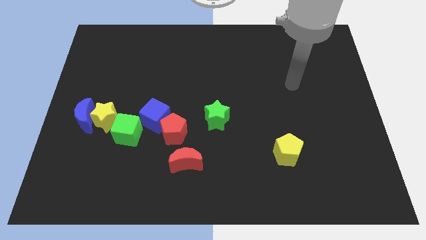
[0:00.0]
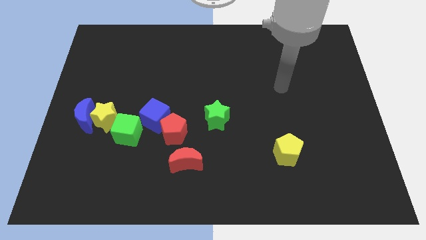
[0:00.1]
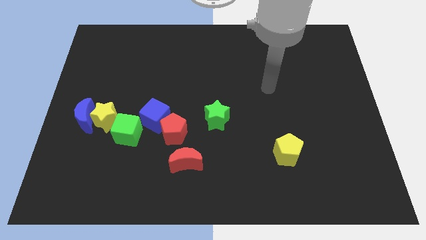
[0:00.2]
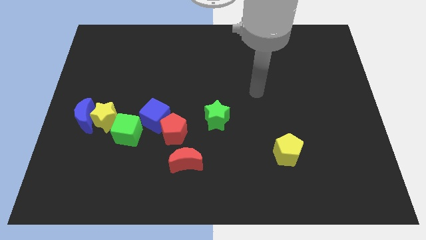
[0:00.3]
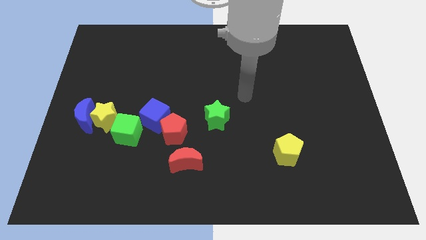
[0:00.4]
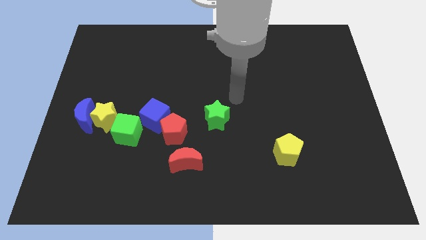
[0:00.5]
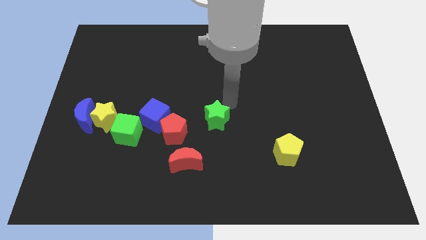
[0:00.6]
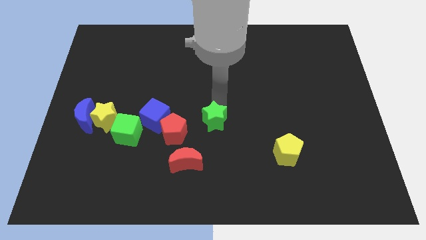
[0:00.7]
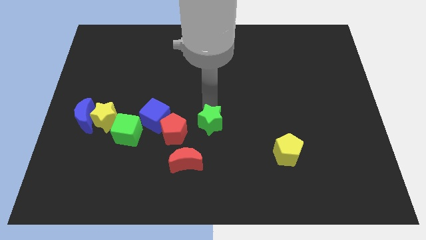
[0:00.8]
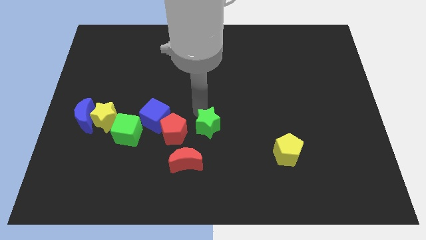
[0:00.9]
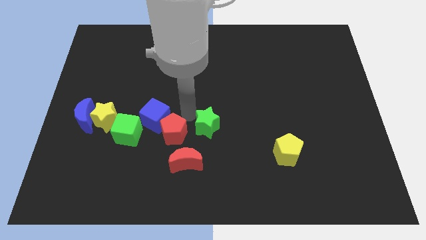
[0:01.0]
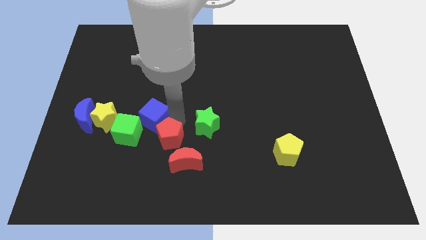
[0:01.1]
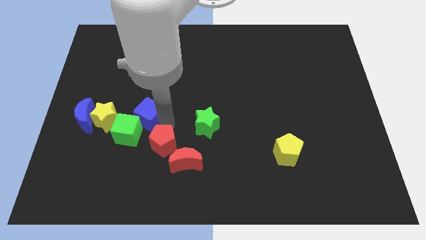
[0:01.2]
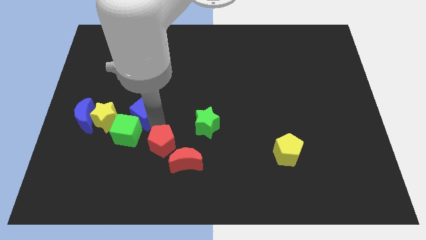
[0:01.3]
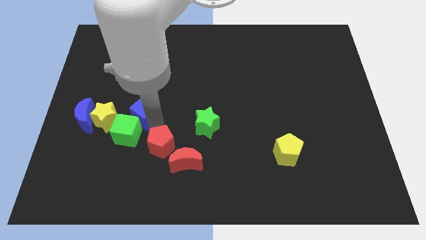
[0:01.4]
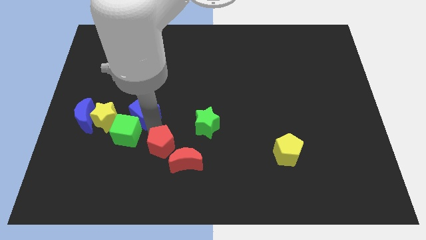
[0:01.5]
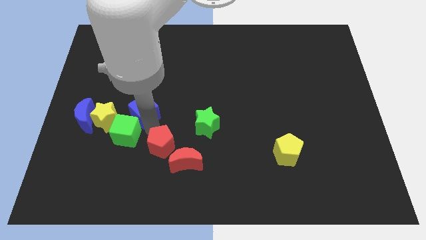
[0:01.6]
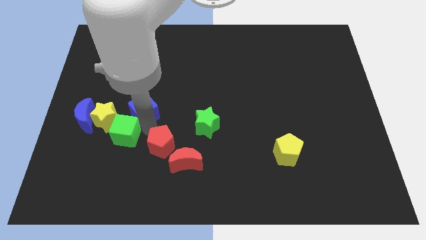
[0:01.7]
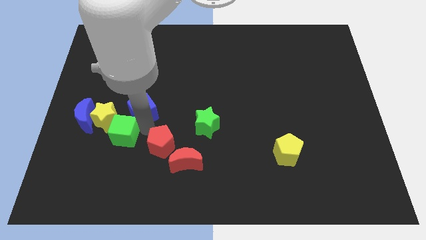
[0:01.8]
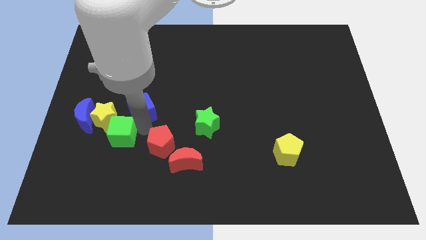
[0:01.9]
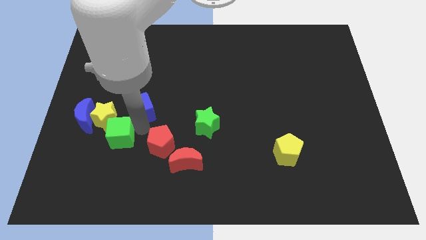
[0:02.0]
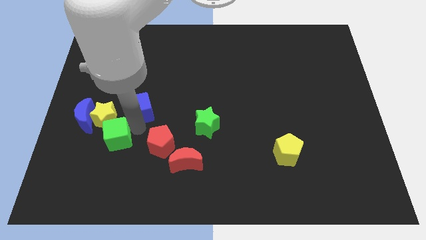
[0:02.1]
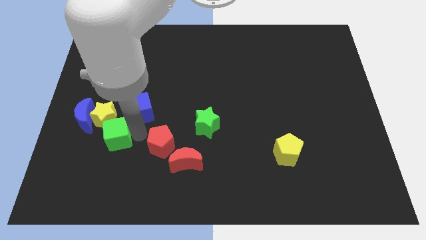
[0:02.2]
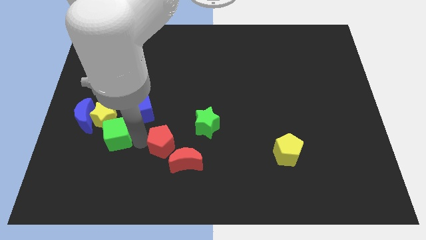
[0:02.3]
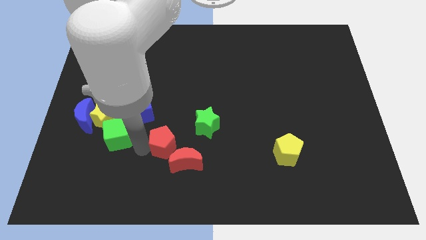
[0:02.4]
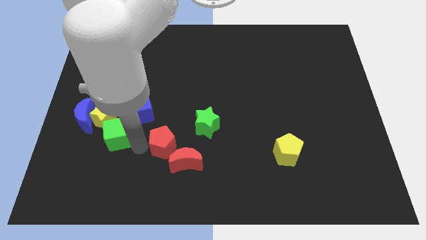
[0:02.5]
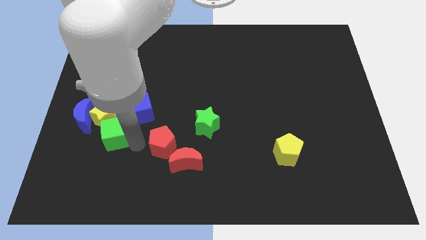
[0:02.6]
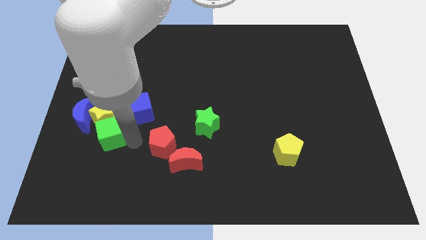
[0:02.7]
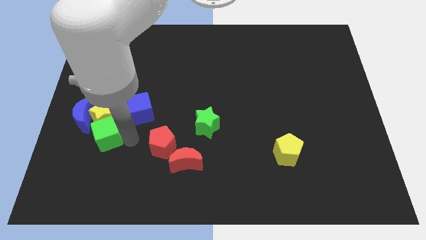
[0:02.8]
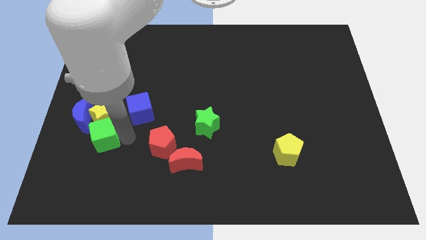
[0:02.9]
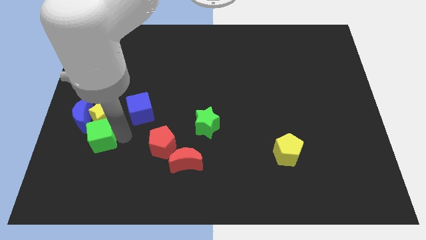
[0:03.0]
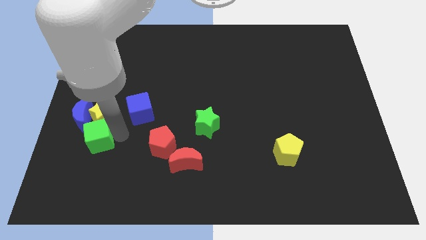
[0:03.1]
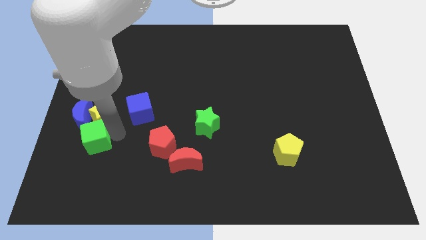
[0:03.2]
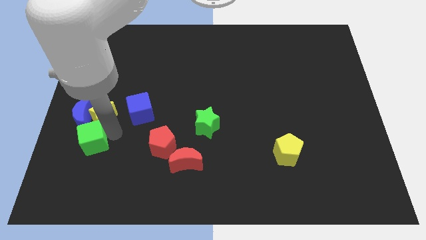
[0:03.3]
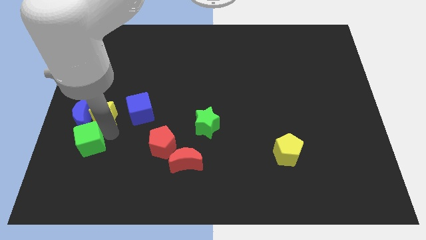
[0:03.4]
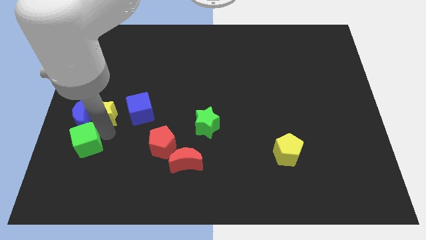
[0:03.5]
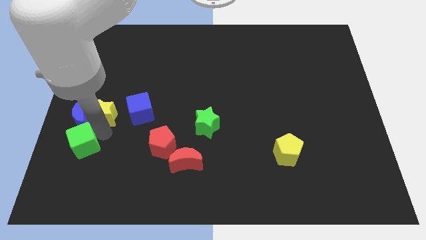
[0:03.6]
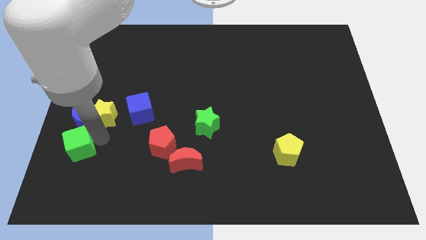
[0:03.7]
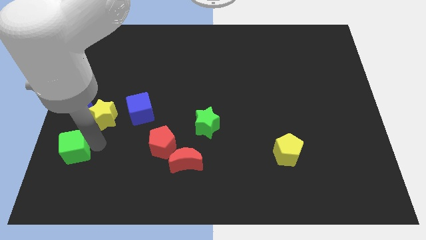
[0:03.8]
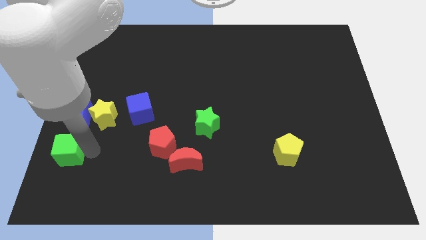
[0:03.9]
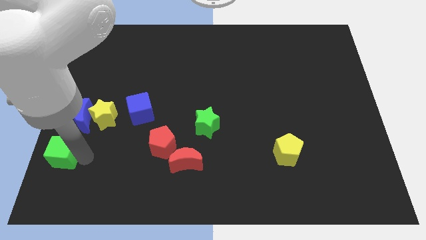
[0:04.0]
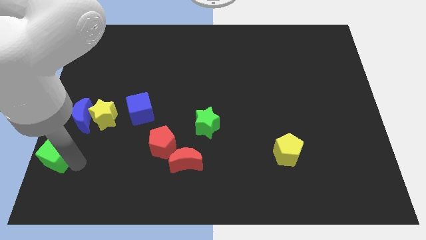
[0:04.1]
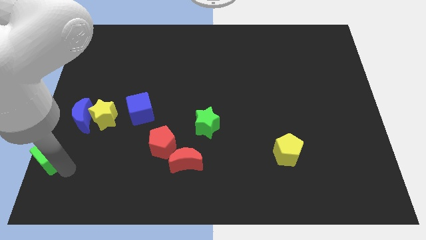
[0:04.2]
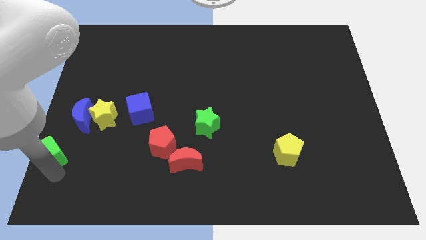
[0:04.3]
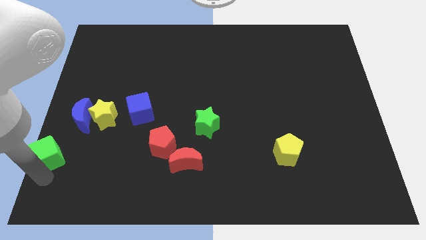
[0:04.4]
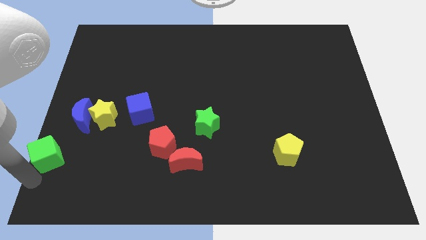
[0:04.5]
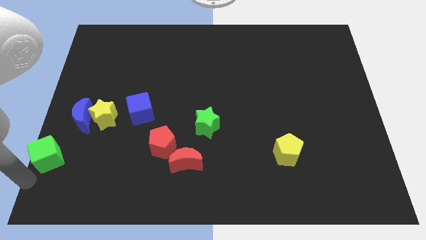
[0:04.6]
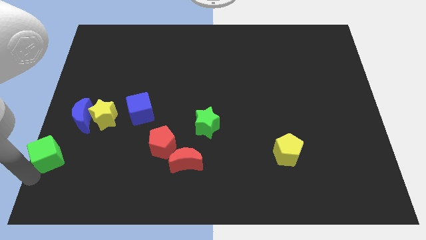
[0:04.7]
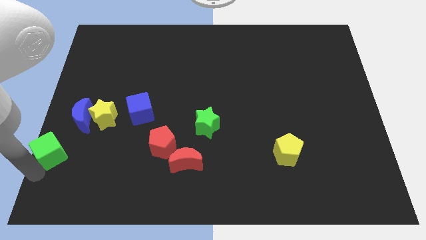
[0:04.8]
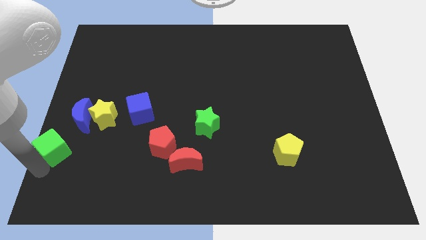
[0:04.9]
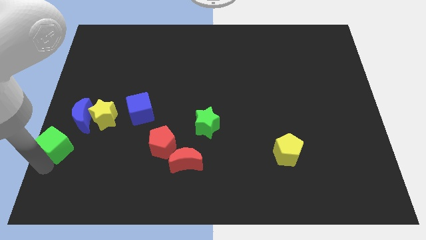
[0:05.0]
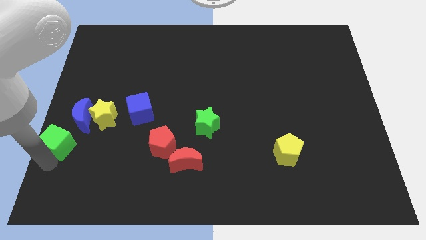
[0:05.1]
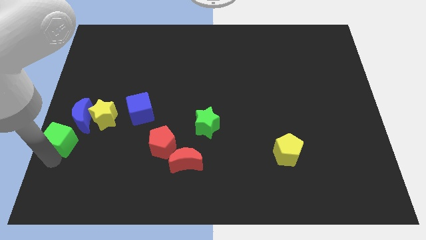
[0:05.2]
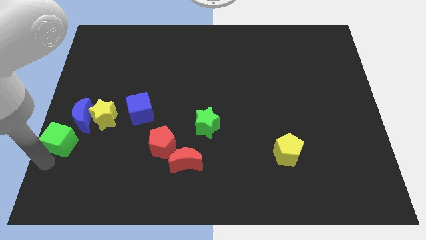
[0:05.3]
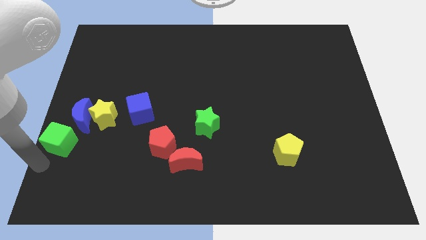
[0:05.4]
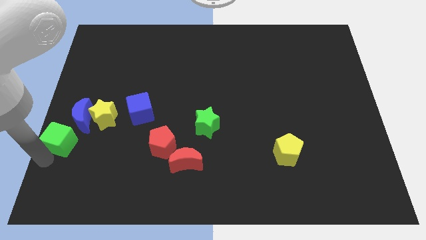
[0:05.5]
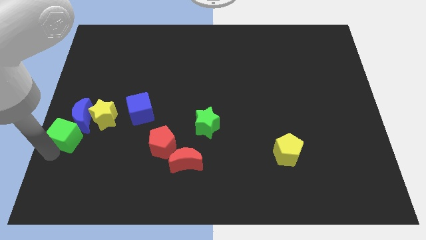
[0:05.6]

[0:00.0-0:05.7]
push the green cube to the blue moon

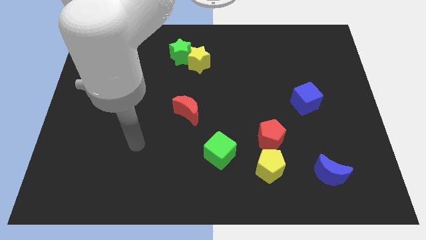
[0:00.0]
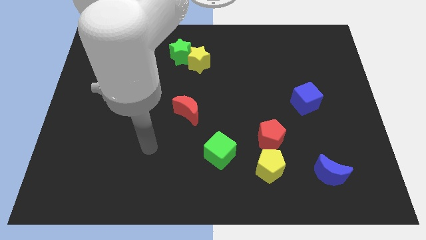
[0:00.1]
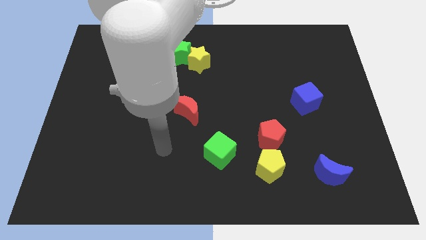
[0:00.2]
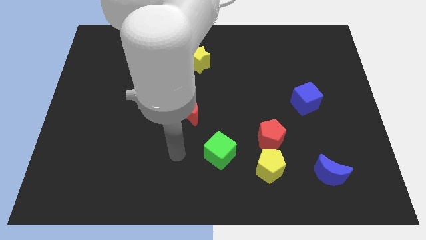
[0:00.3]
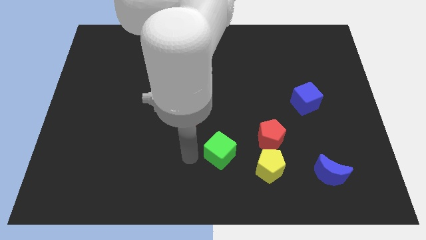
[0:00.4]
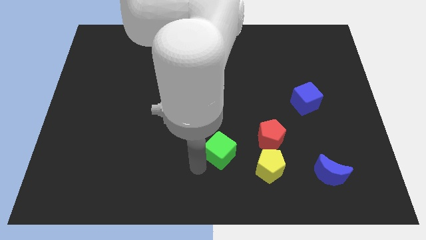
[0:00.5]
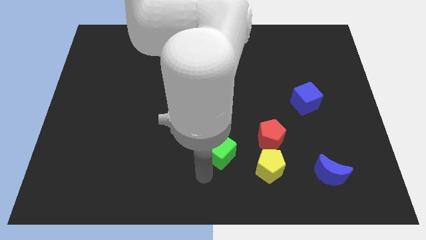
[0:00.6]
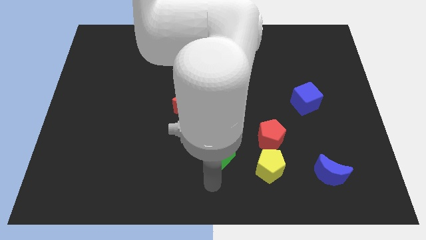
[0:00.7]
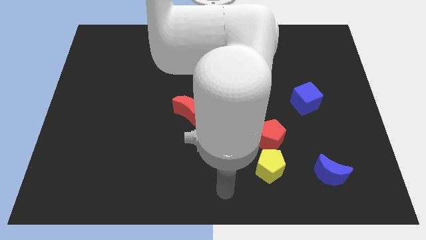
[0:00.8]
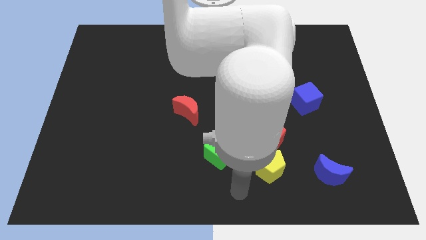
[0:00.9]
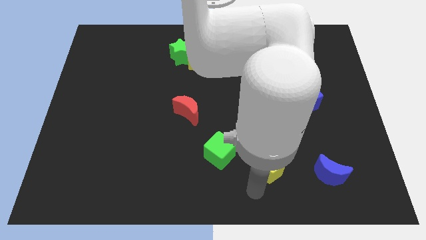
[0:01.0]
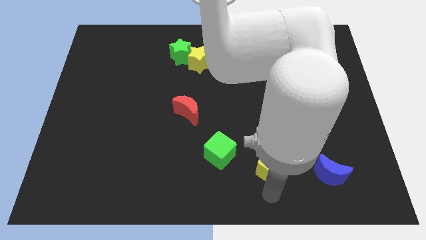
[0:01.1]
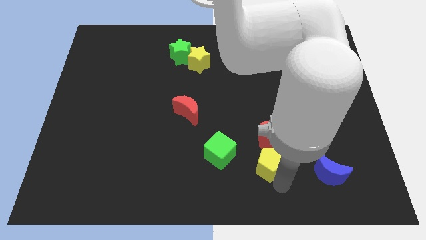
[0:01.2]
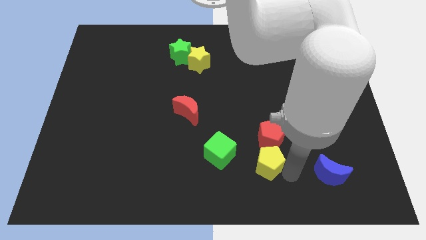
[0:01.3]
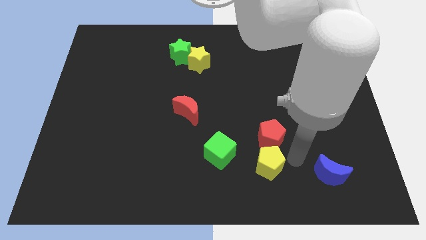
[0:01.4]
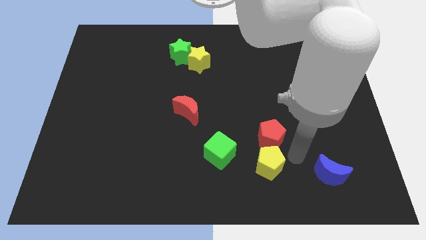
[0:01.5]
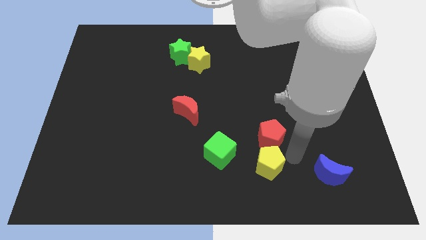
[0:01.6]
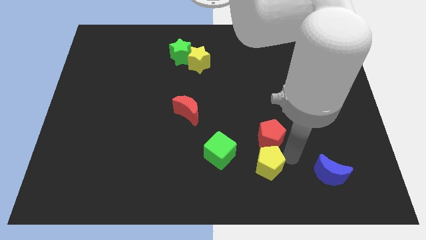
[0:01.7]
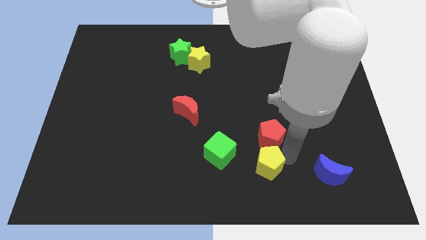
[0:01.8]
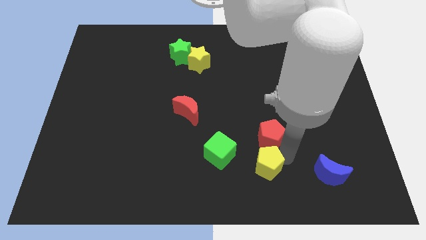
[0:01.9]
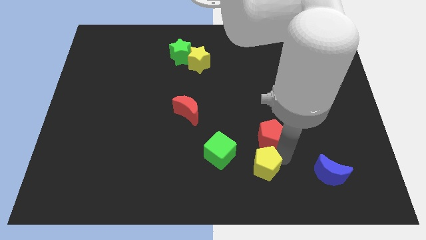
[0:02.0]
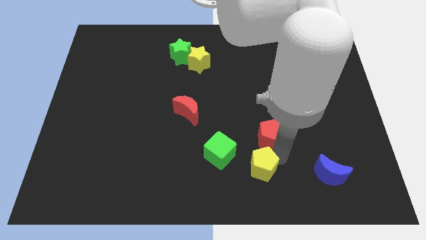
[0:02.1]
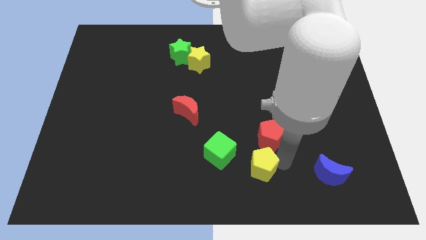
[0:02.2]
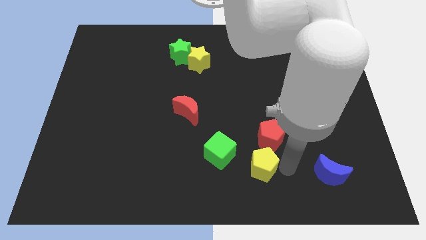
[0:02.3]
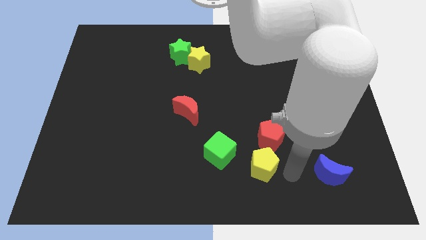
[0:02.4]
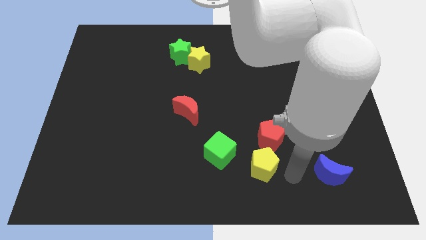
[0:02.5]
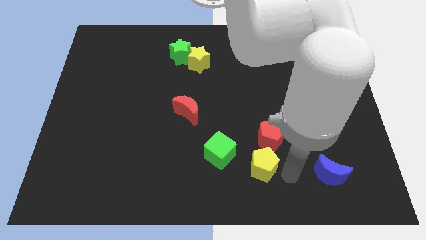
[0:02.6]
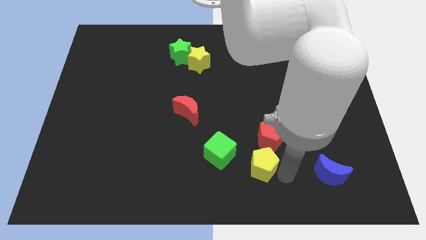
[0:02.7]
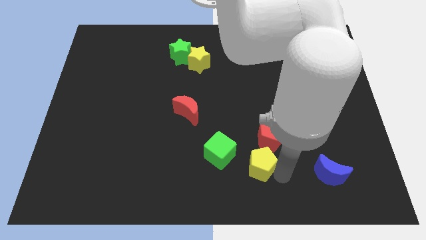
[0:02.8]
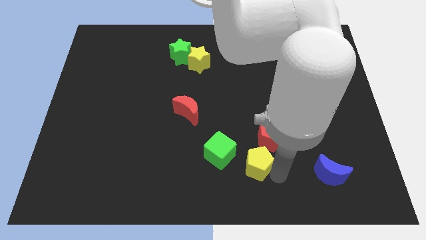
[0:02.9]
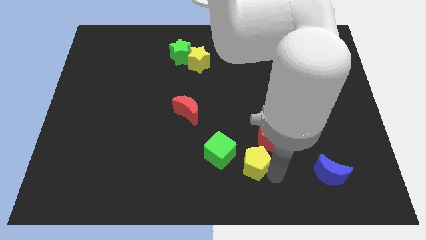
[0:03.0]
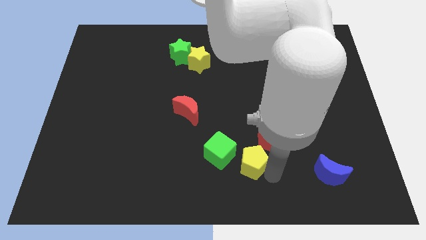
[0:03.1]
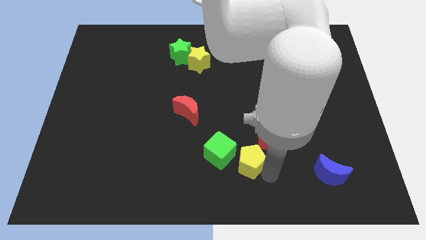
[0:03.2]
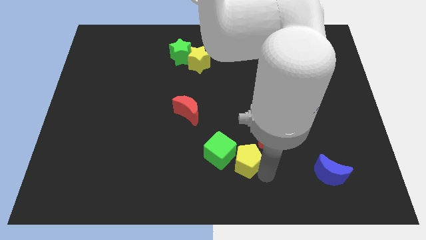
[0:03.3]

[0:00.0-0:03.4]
slide the yellow pentagon close to the green cube
